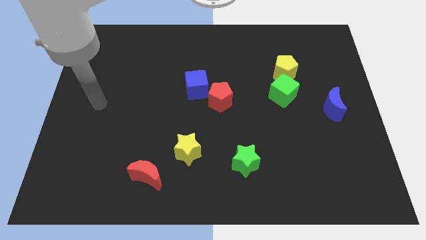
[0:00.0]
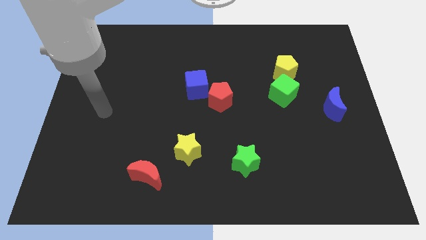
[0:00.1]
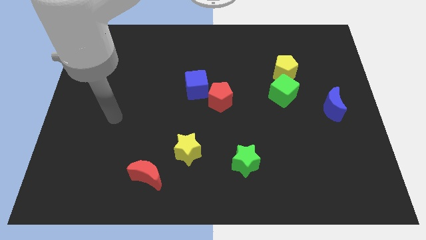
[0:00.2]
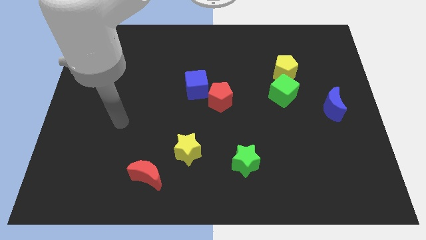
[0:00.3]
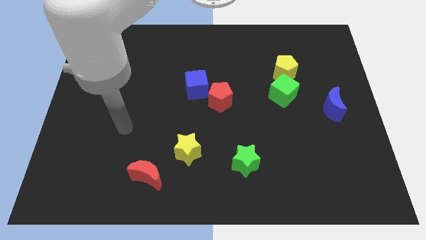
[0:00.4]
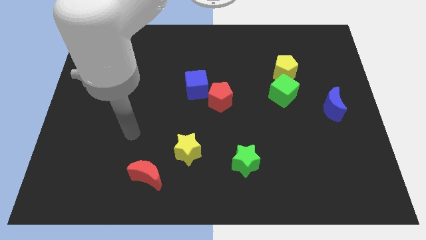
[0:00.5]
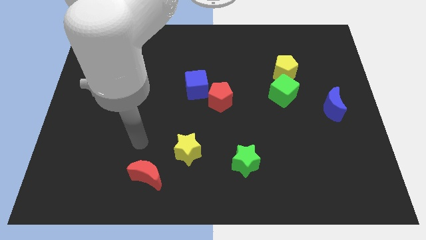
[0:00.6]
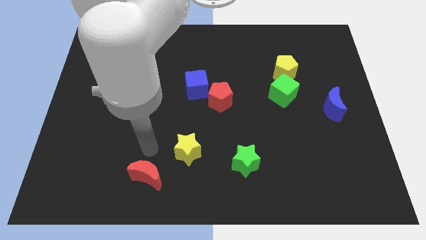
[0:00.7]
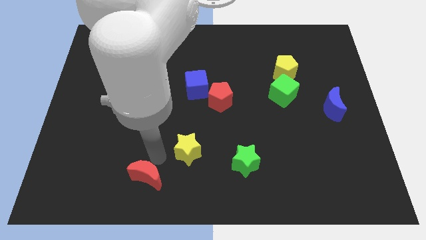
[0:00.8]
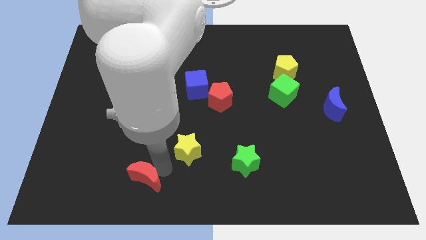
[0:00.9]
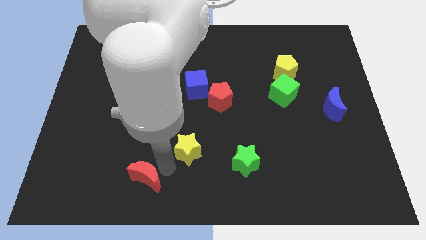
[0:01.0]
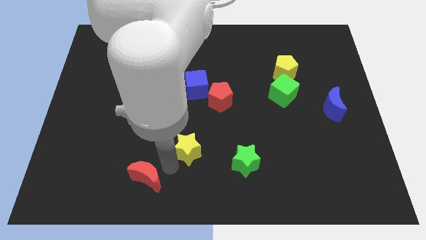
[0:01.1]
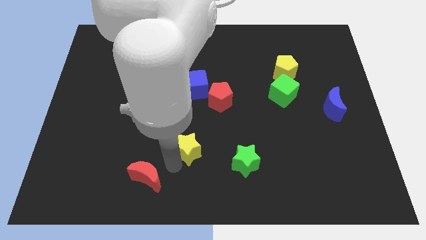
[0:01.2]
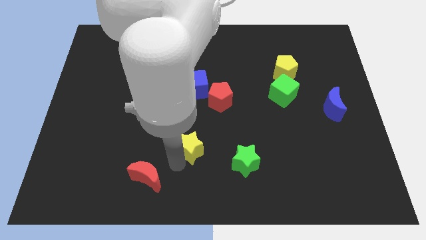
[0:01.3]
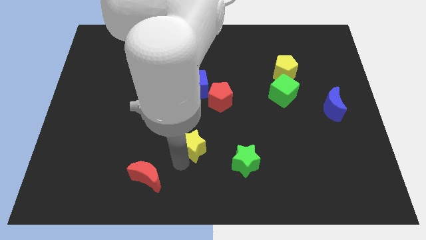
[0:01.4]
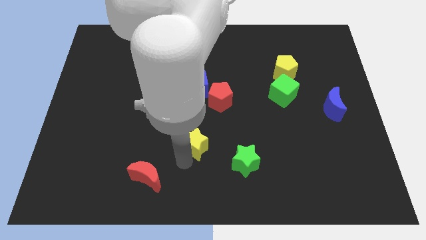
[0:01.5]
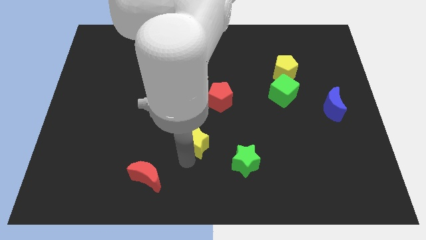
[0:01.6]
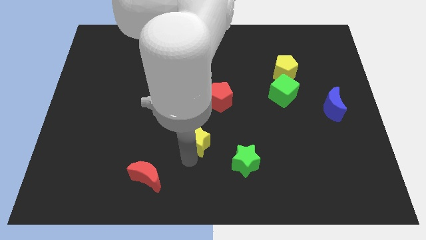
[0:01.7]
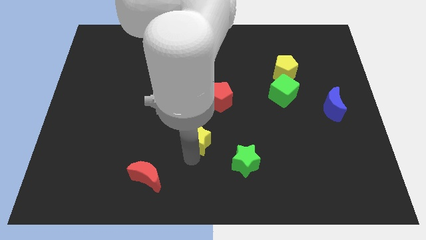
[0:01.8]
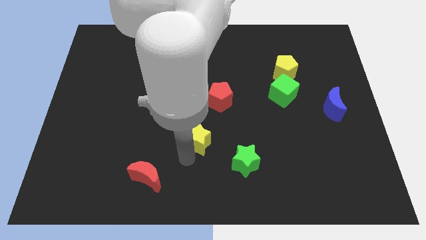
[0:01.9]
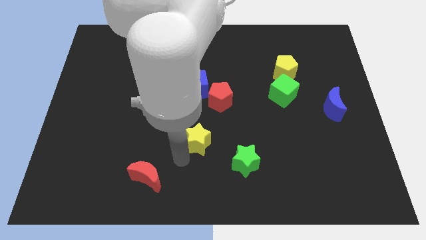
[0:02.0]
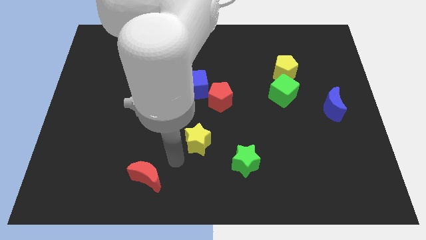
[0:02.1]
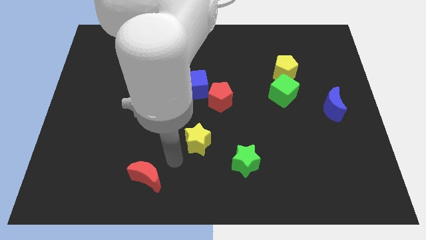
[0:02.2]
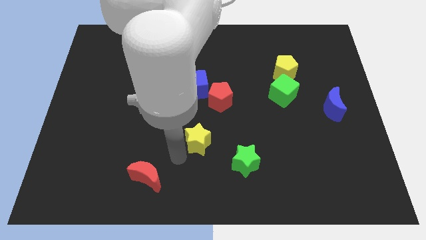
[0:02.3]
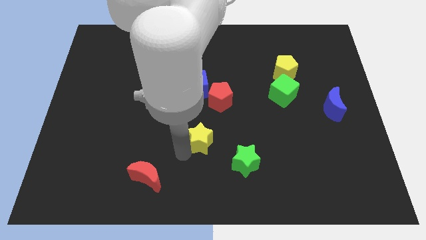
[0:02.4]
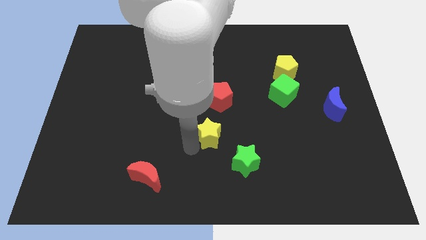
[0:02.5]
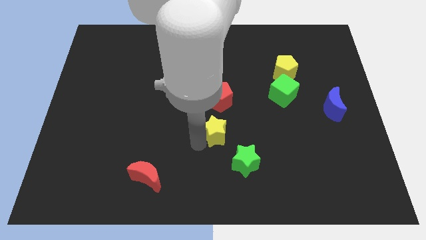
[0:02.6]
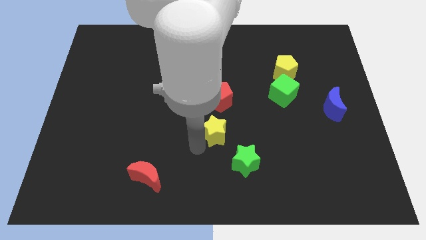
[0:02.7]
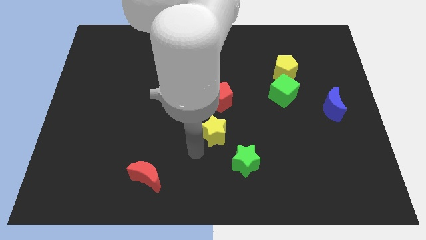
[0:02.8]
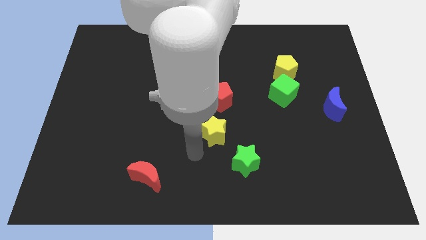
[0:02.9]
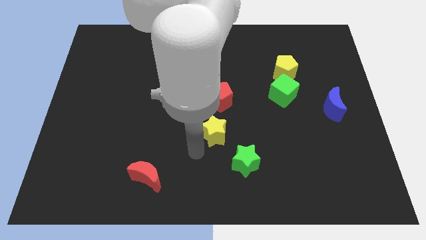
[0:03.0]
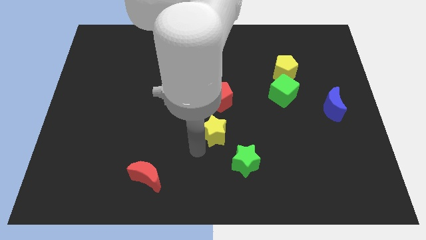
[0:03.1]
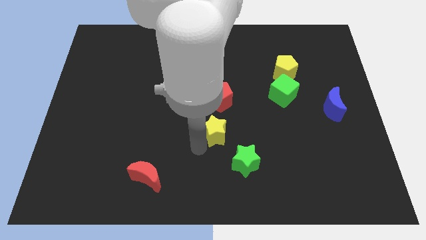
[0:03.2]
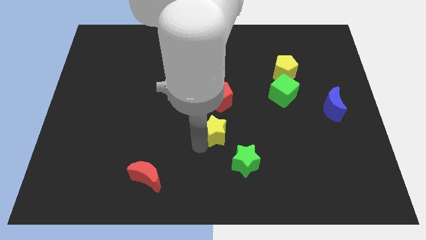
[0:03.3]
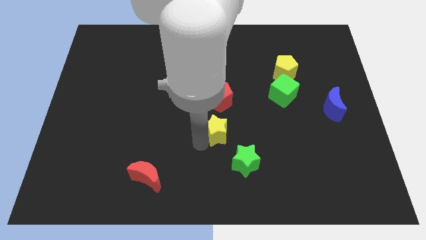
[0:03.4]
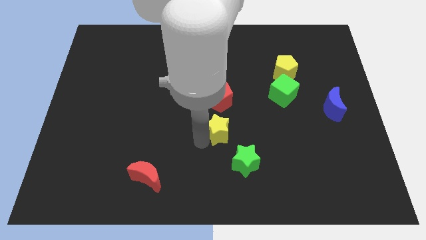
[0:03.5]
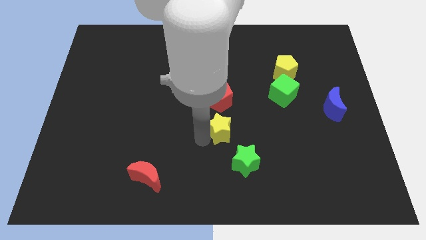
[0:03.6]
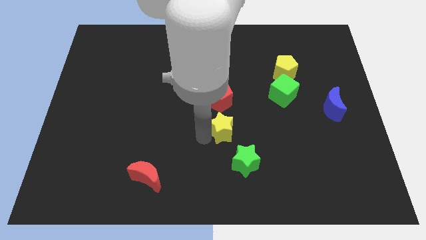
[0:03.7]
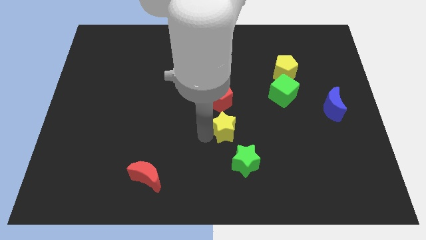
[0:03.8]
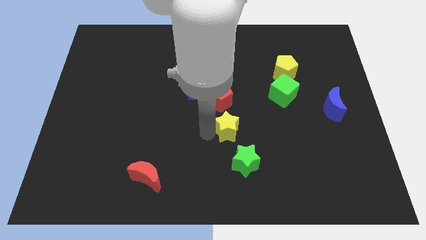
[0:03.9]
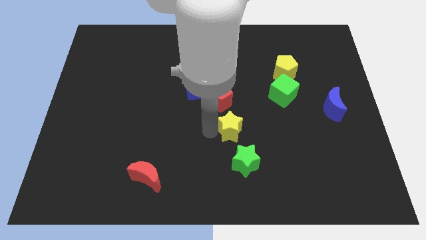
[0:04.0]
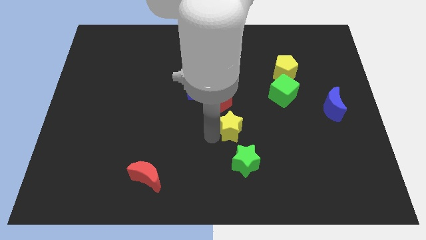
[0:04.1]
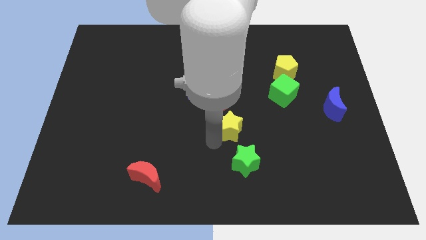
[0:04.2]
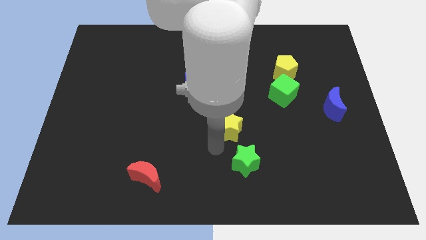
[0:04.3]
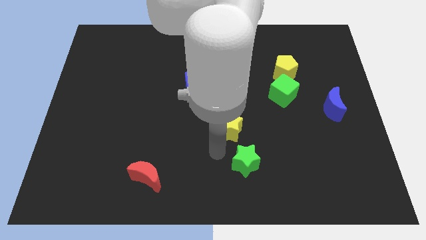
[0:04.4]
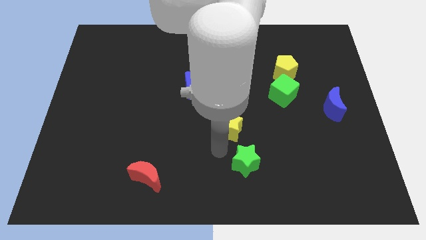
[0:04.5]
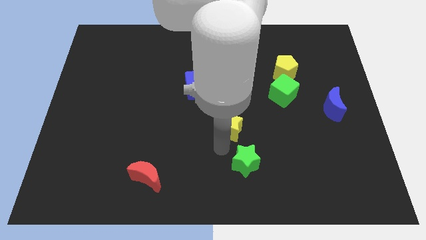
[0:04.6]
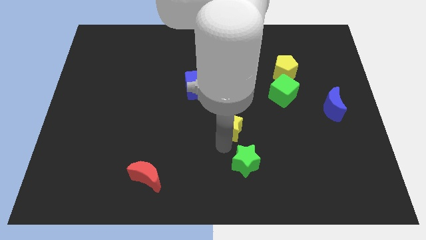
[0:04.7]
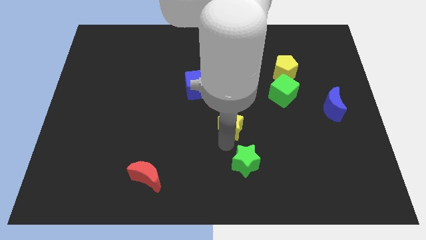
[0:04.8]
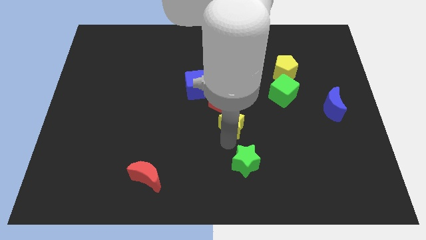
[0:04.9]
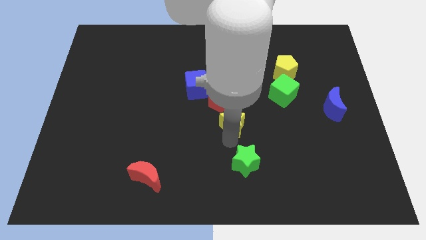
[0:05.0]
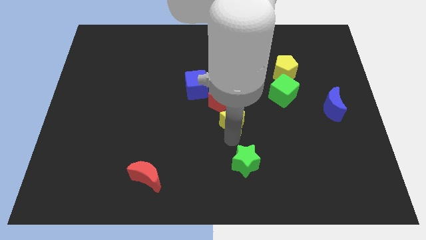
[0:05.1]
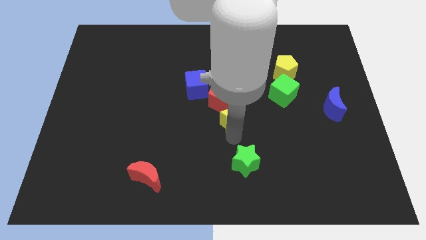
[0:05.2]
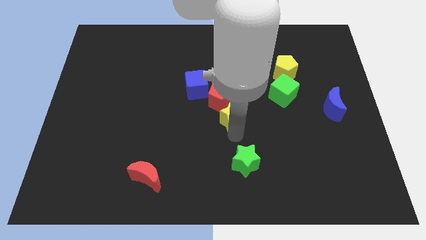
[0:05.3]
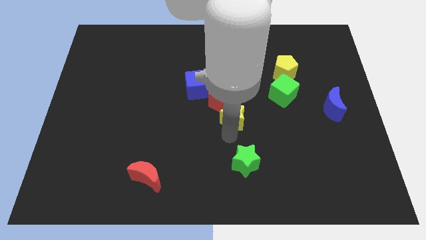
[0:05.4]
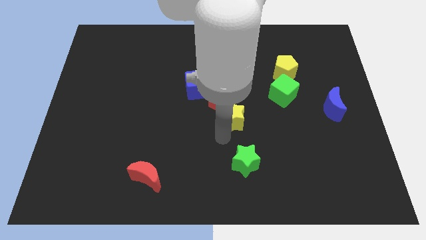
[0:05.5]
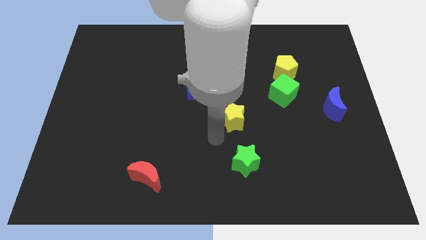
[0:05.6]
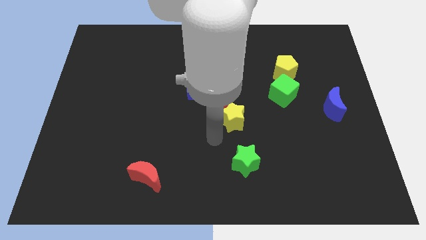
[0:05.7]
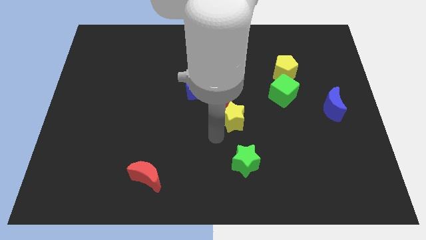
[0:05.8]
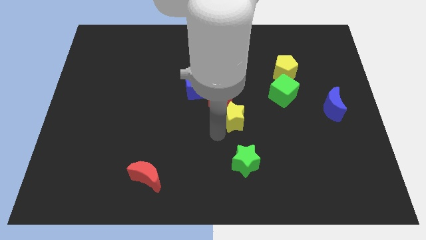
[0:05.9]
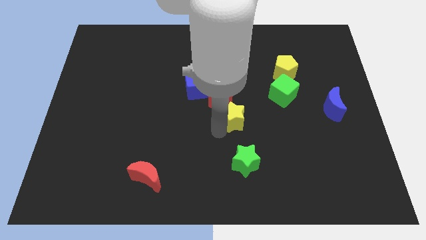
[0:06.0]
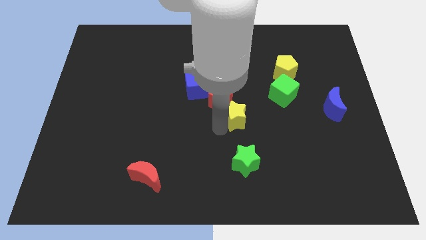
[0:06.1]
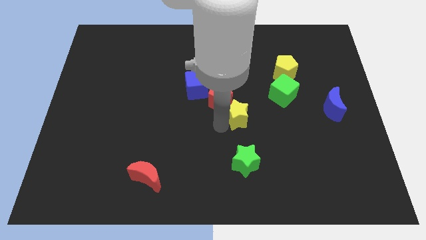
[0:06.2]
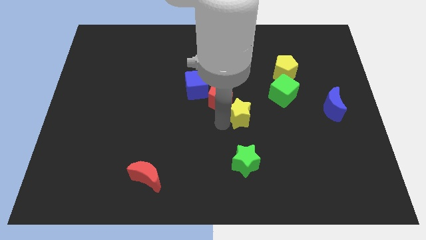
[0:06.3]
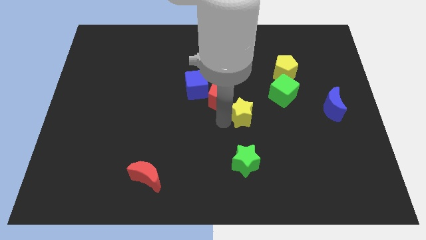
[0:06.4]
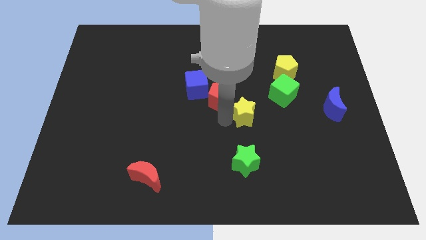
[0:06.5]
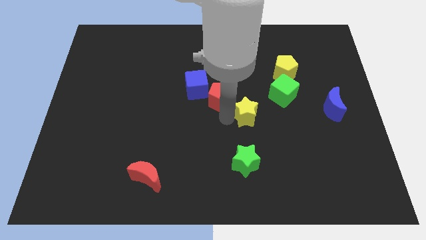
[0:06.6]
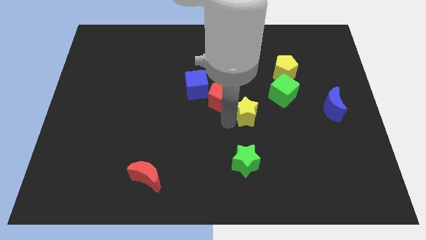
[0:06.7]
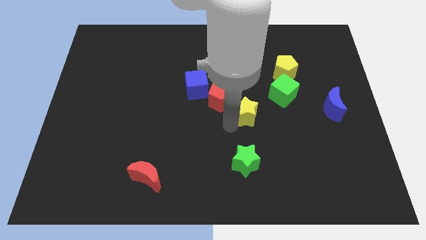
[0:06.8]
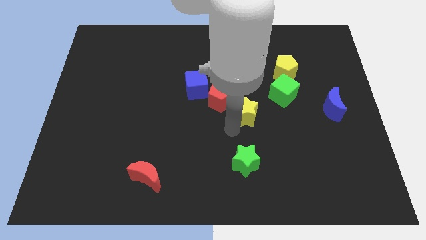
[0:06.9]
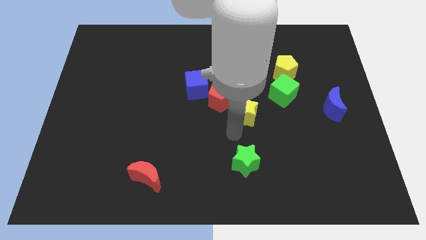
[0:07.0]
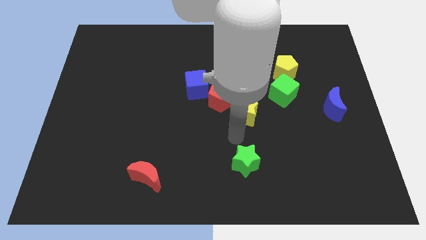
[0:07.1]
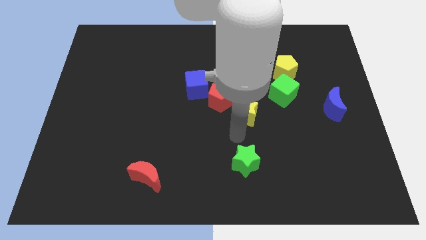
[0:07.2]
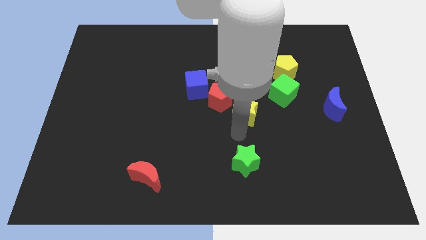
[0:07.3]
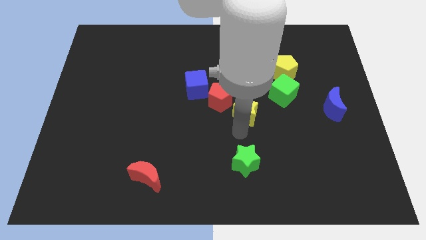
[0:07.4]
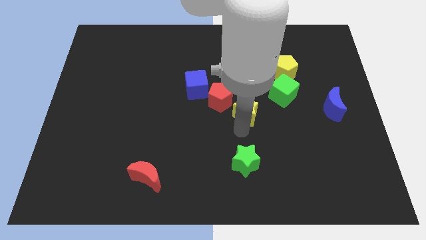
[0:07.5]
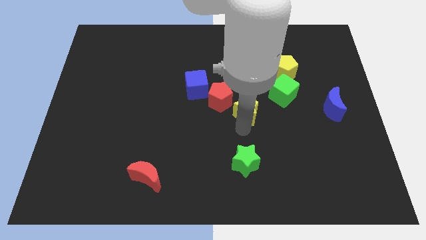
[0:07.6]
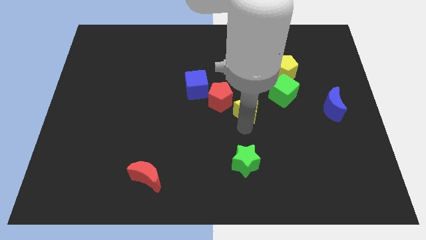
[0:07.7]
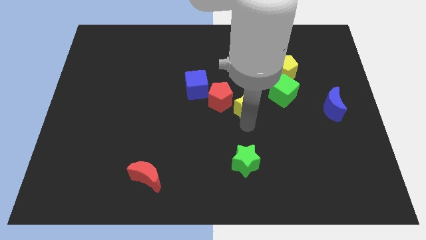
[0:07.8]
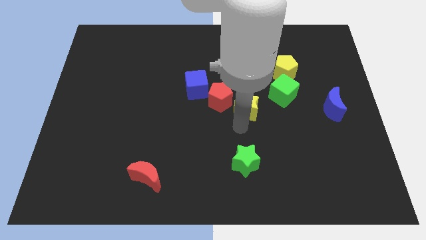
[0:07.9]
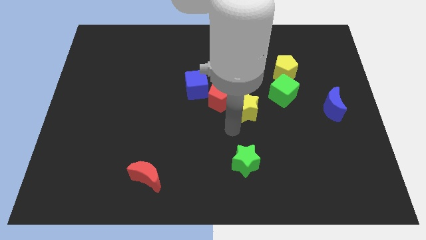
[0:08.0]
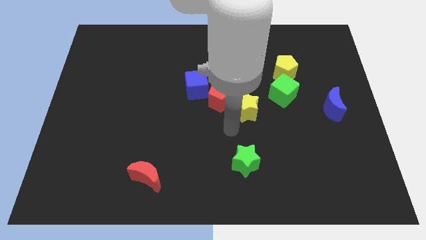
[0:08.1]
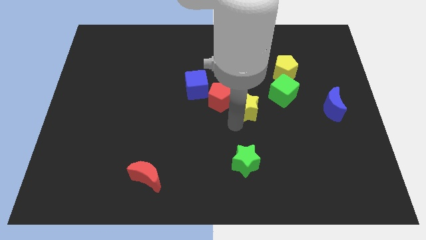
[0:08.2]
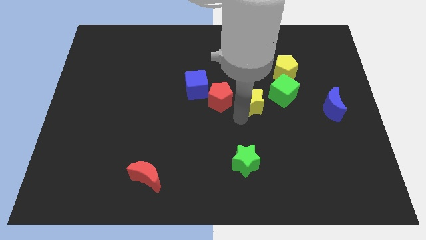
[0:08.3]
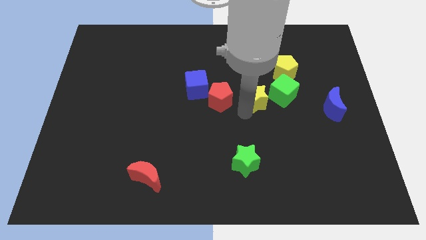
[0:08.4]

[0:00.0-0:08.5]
move the yellow star to the bottom left side of the yellow pentagon
